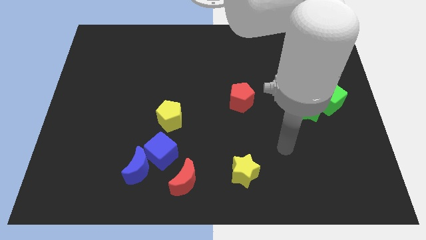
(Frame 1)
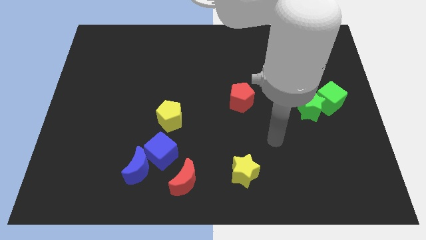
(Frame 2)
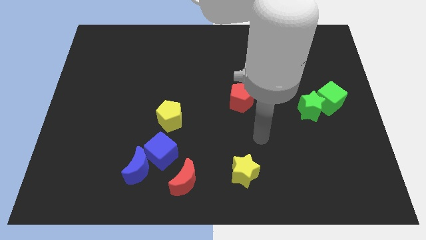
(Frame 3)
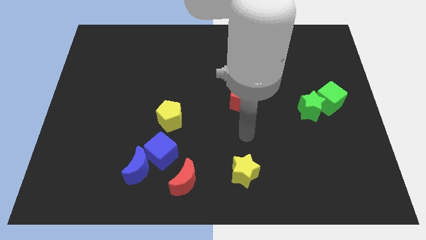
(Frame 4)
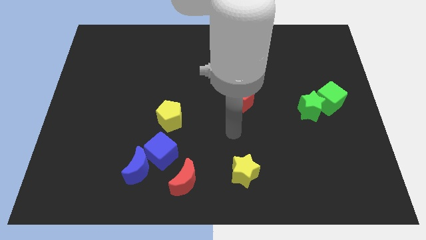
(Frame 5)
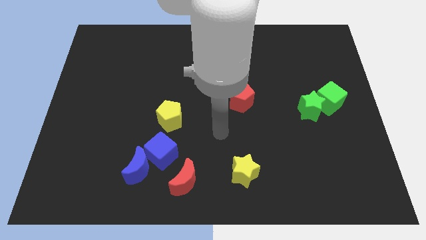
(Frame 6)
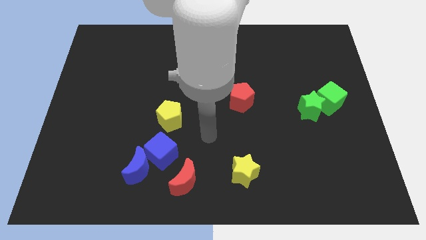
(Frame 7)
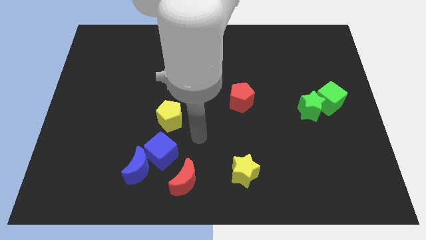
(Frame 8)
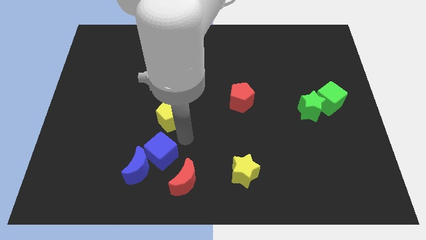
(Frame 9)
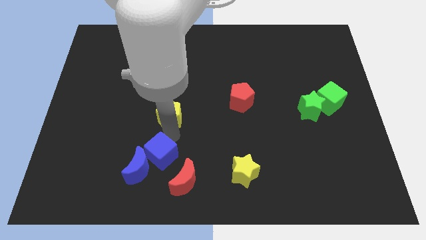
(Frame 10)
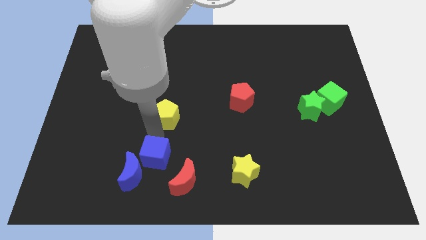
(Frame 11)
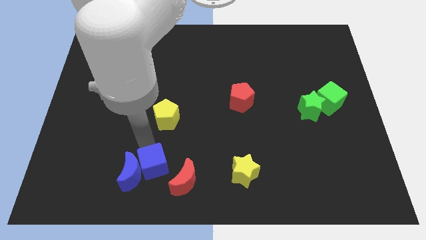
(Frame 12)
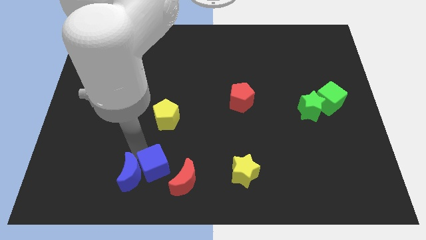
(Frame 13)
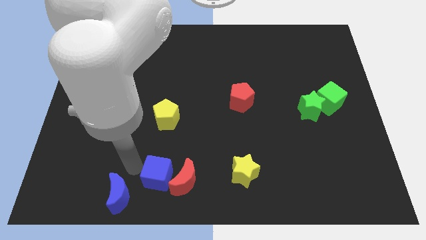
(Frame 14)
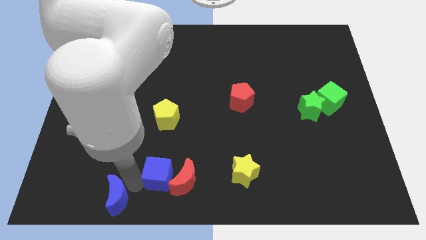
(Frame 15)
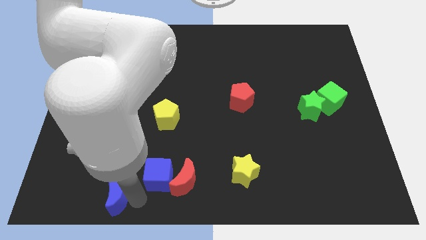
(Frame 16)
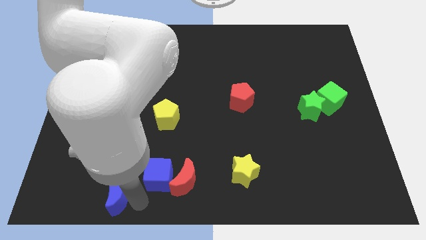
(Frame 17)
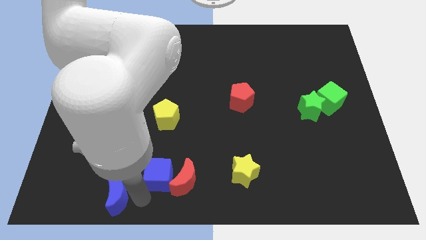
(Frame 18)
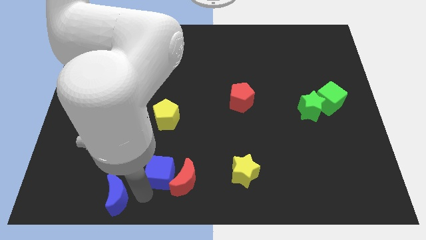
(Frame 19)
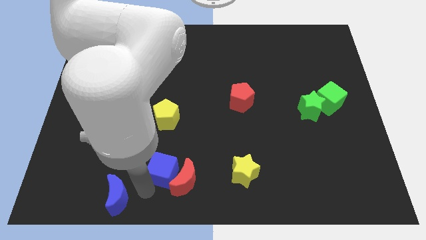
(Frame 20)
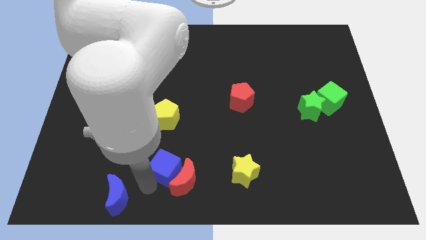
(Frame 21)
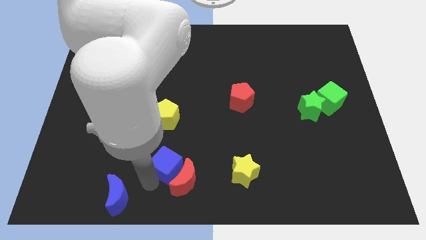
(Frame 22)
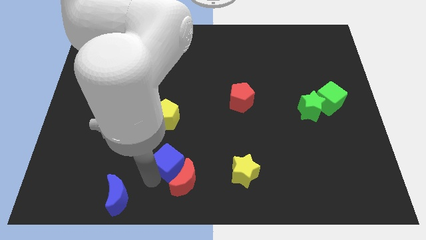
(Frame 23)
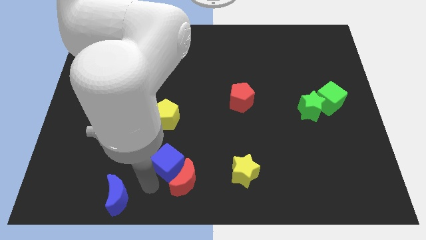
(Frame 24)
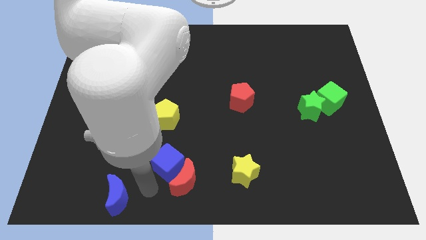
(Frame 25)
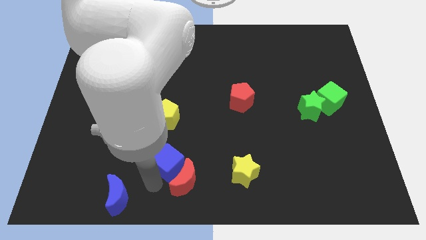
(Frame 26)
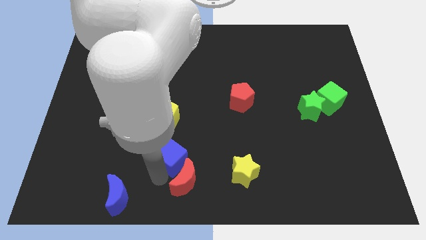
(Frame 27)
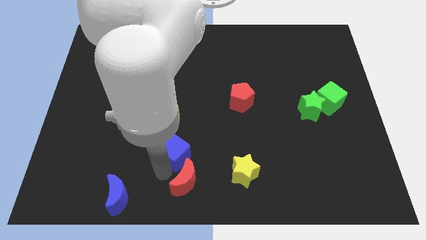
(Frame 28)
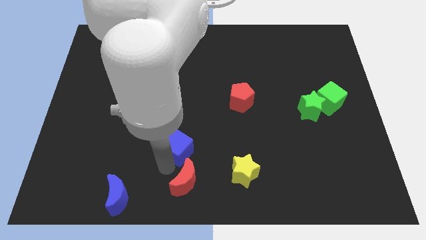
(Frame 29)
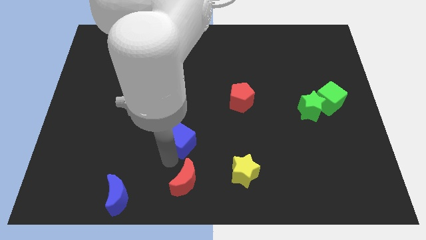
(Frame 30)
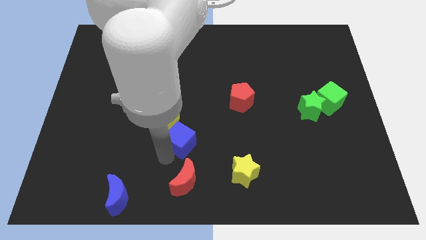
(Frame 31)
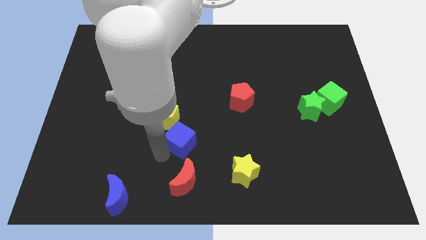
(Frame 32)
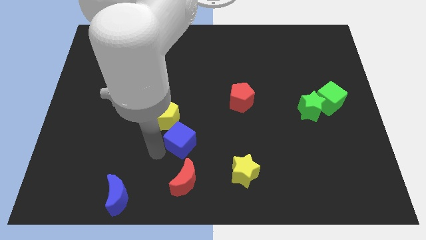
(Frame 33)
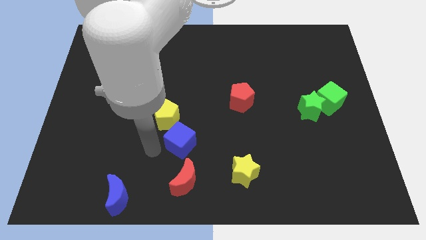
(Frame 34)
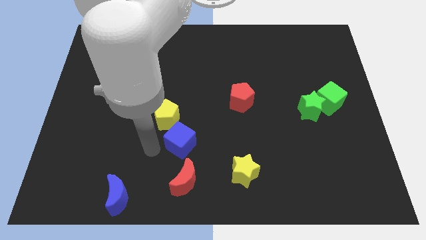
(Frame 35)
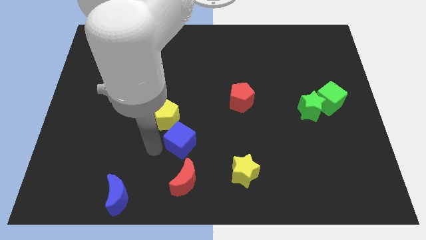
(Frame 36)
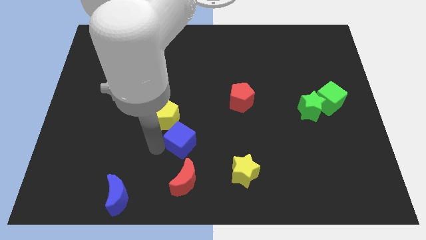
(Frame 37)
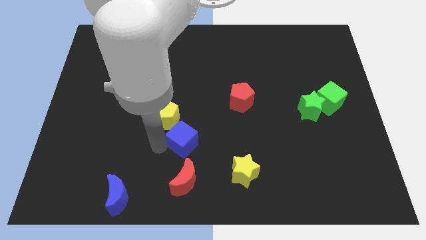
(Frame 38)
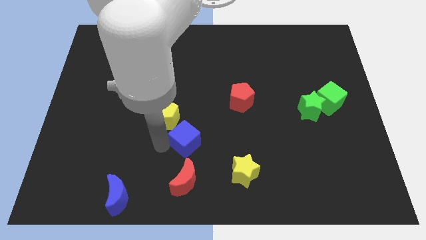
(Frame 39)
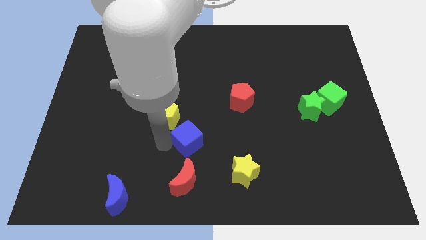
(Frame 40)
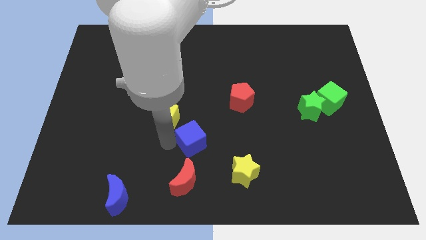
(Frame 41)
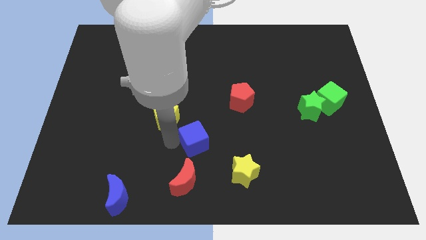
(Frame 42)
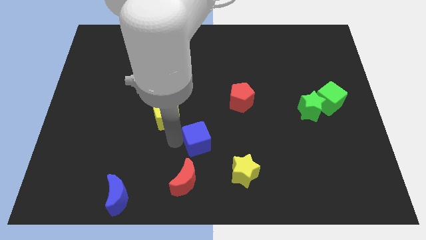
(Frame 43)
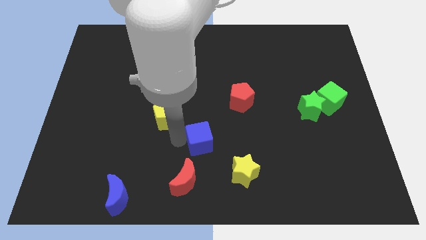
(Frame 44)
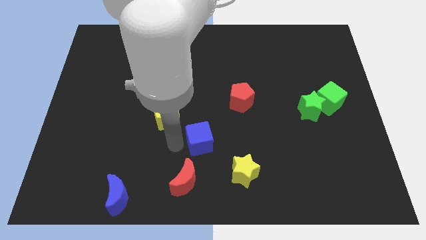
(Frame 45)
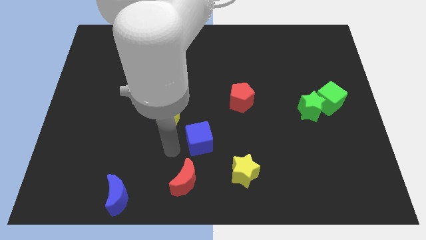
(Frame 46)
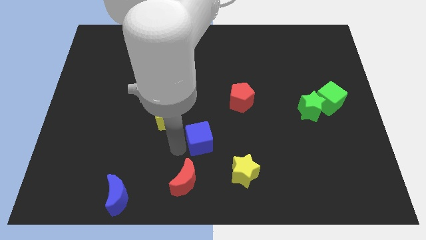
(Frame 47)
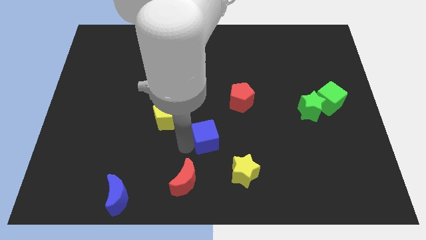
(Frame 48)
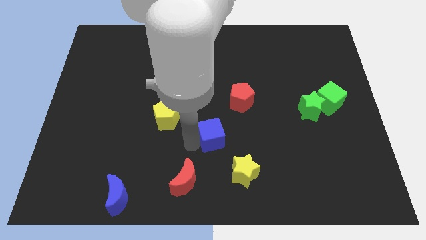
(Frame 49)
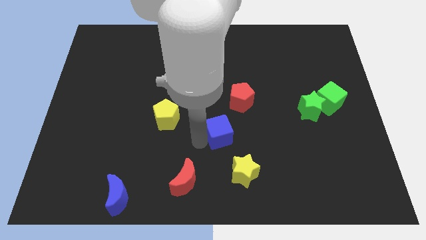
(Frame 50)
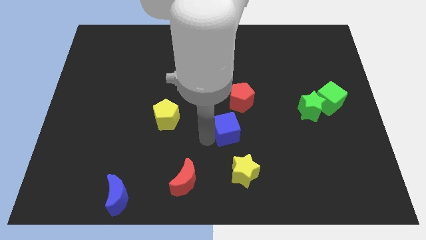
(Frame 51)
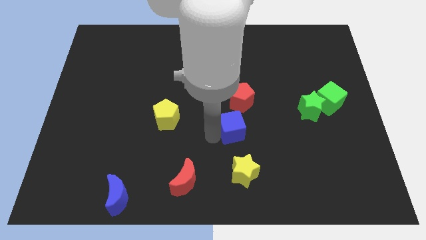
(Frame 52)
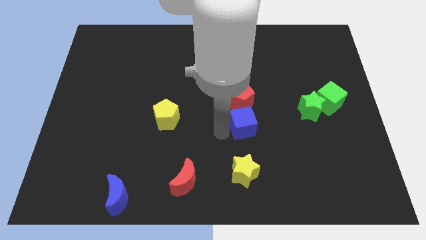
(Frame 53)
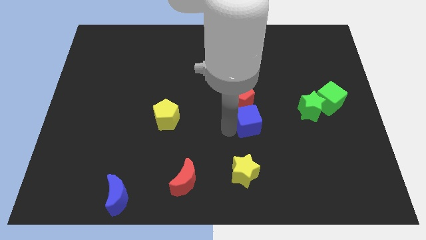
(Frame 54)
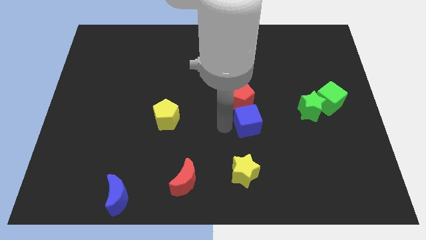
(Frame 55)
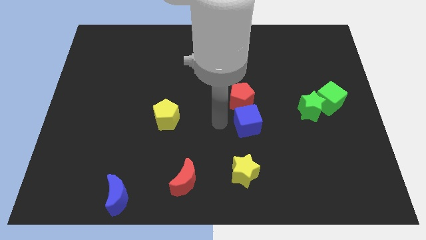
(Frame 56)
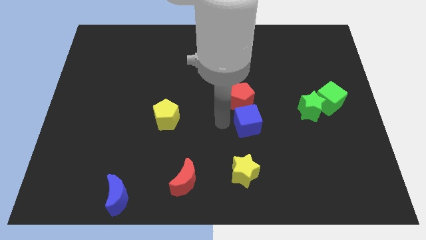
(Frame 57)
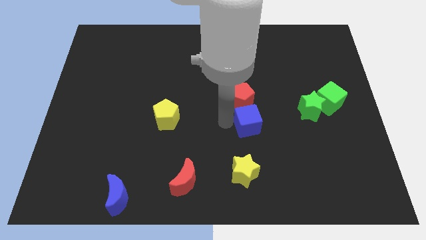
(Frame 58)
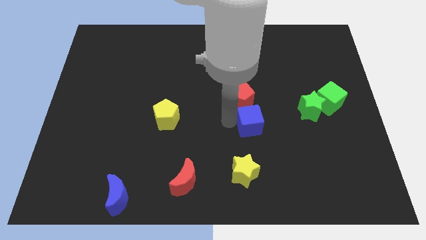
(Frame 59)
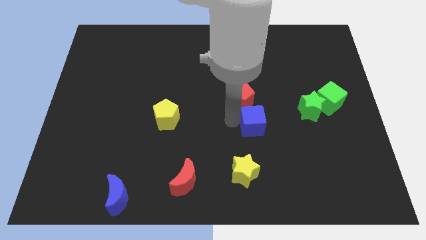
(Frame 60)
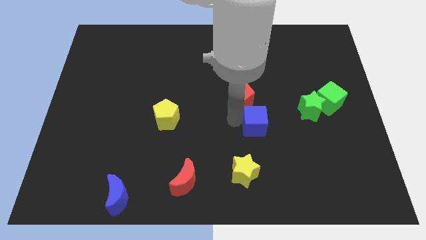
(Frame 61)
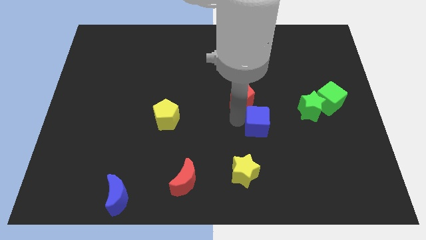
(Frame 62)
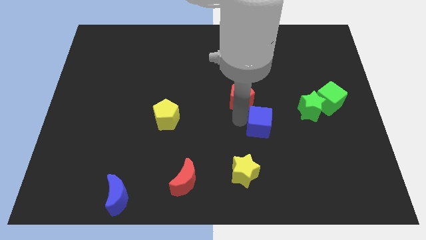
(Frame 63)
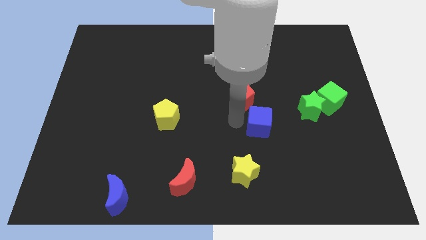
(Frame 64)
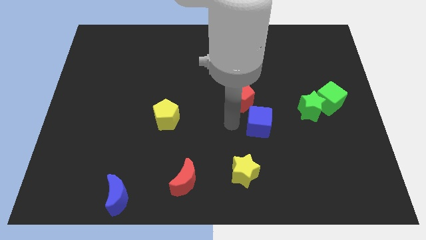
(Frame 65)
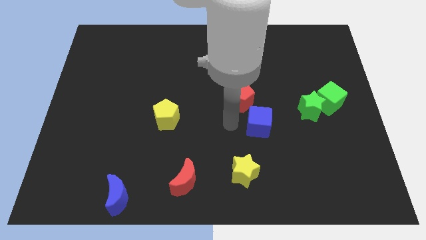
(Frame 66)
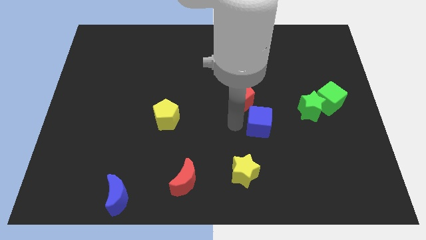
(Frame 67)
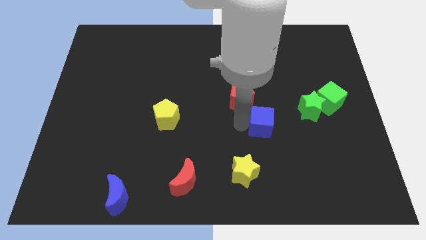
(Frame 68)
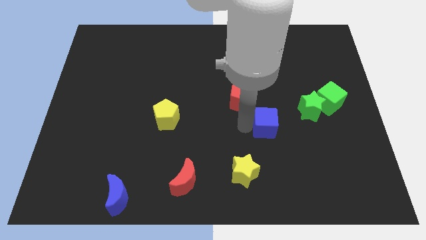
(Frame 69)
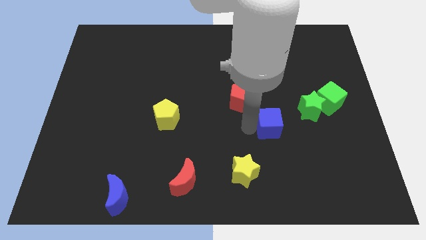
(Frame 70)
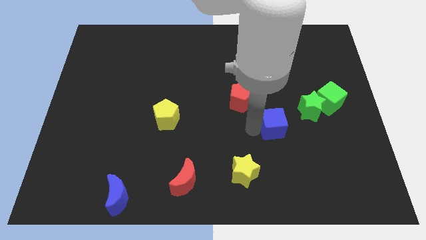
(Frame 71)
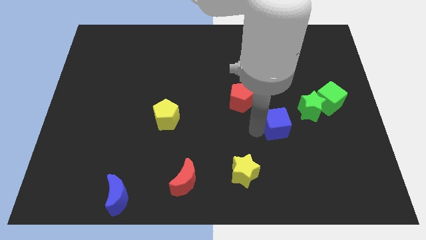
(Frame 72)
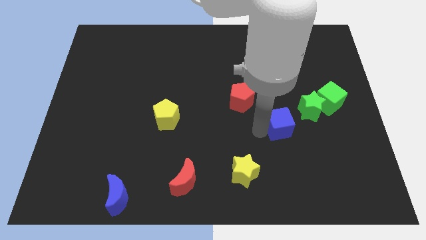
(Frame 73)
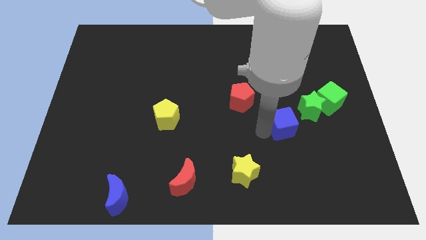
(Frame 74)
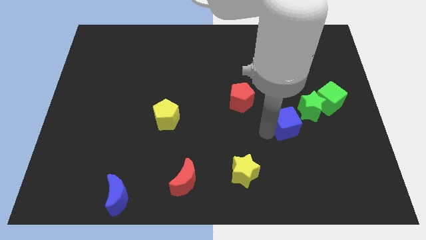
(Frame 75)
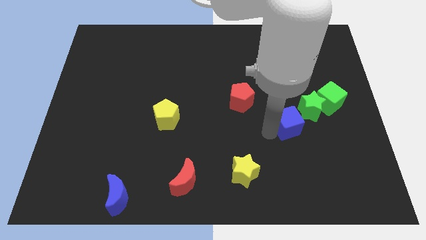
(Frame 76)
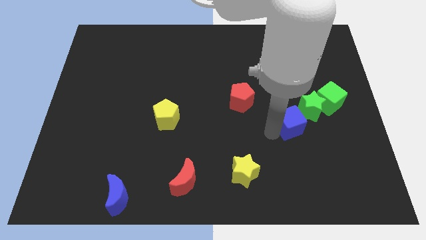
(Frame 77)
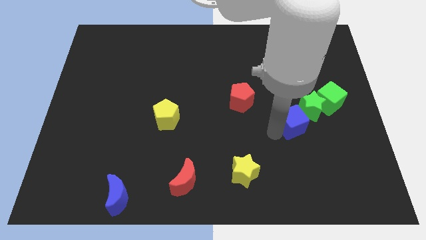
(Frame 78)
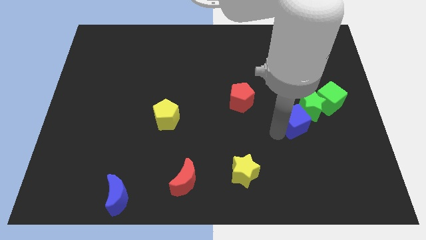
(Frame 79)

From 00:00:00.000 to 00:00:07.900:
move the blue cube to the green star
